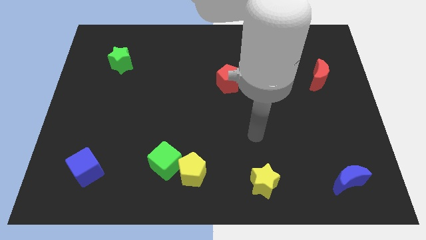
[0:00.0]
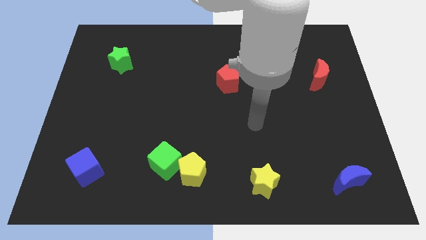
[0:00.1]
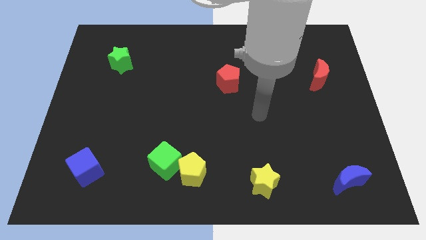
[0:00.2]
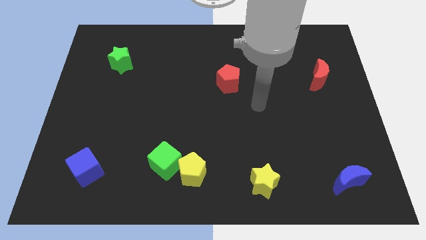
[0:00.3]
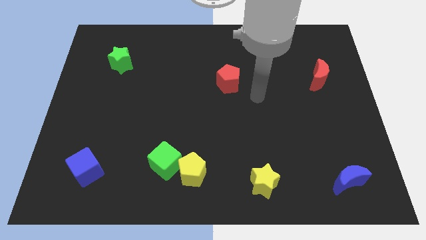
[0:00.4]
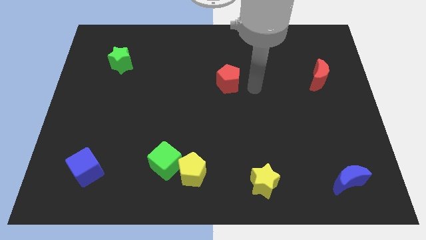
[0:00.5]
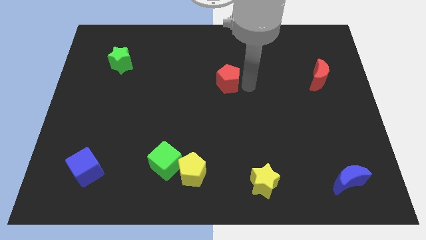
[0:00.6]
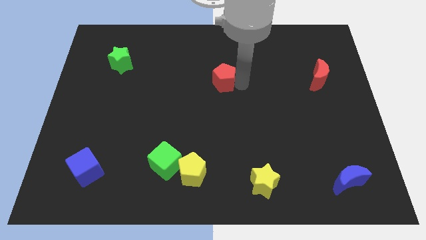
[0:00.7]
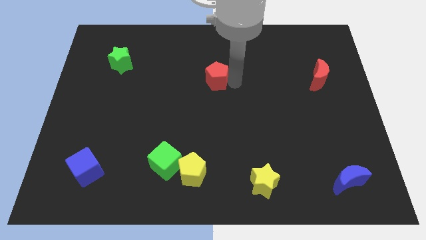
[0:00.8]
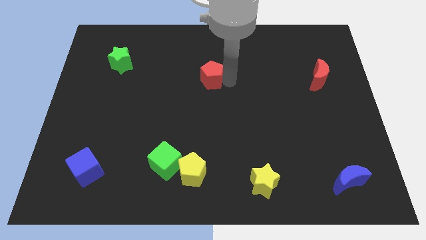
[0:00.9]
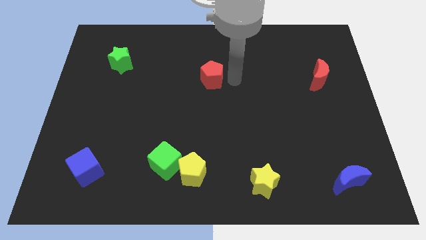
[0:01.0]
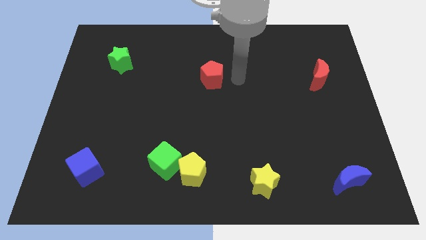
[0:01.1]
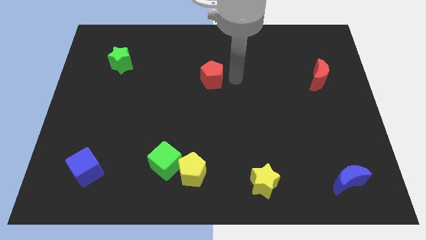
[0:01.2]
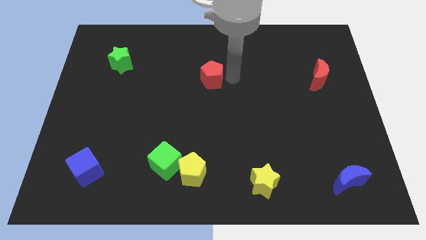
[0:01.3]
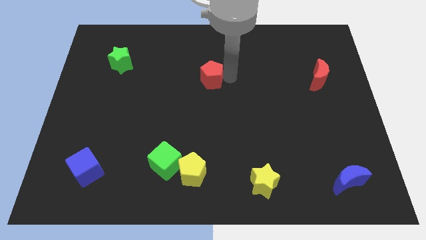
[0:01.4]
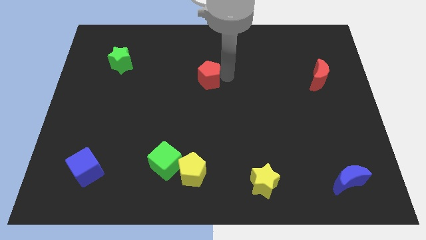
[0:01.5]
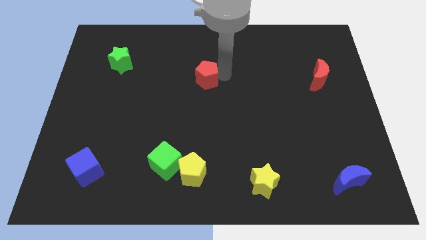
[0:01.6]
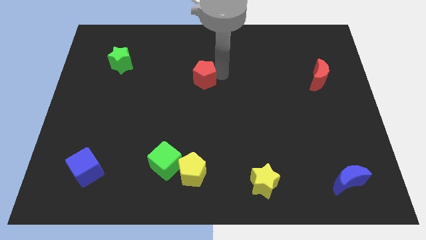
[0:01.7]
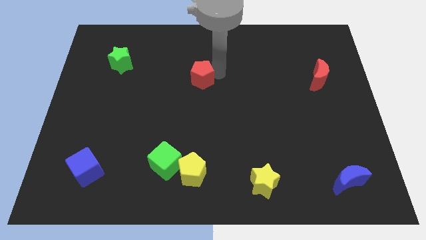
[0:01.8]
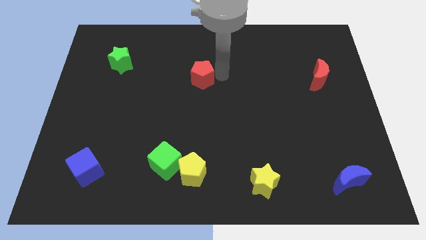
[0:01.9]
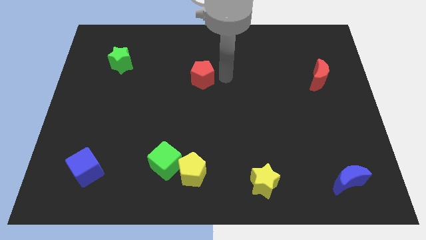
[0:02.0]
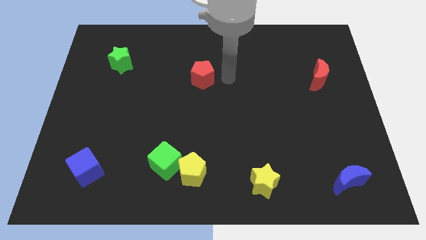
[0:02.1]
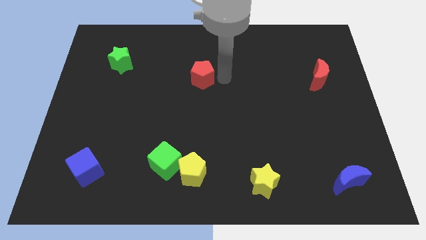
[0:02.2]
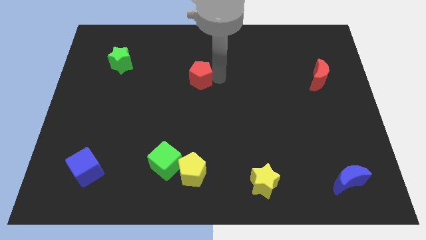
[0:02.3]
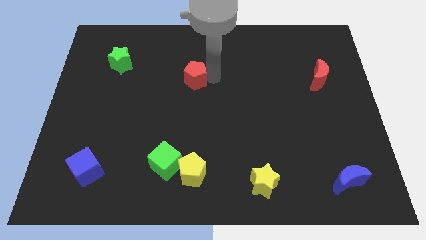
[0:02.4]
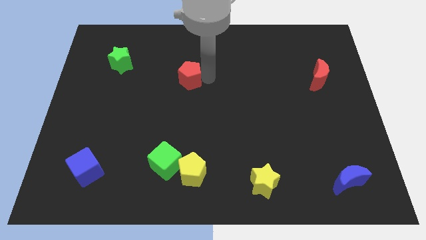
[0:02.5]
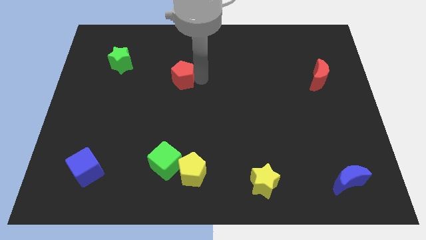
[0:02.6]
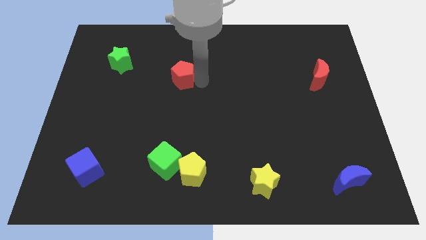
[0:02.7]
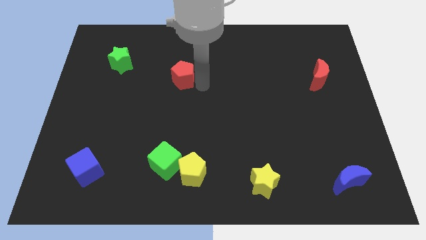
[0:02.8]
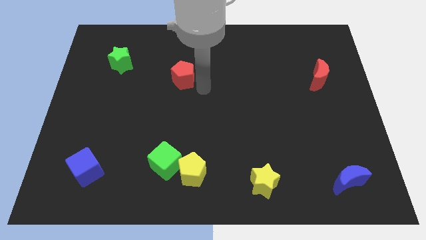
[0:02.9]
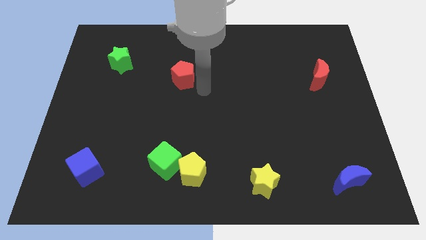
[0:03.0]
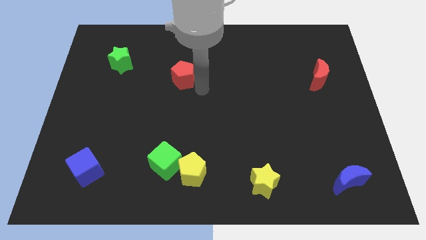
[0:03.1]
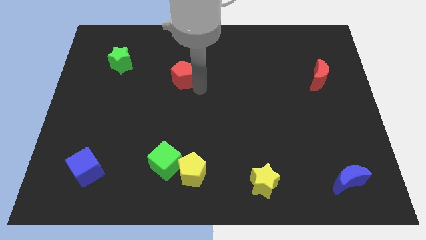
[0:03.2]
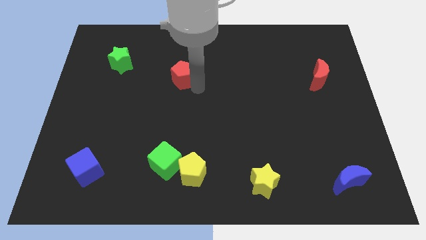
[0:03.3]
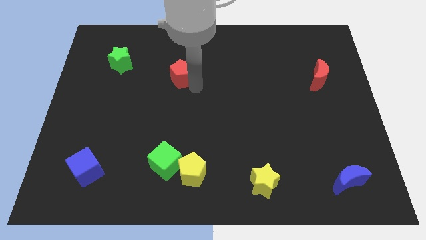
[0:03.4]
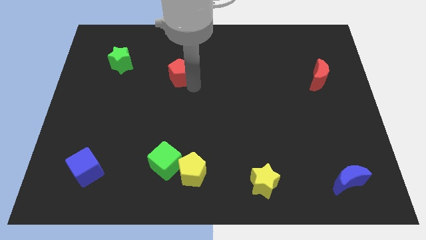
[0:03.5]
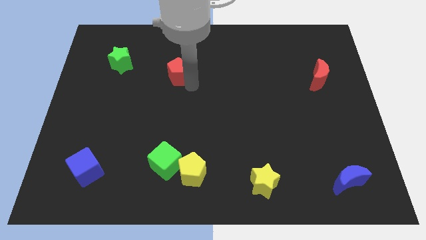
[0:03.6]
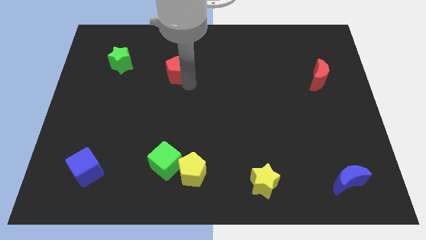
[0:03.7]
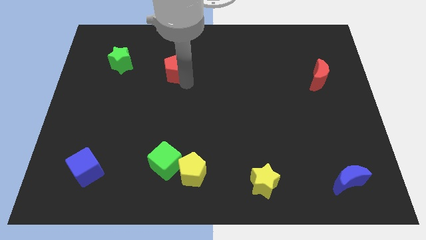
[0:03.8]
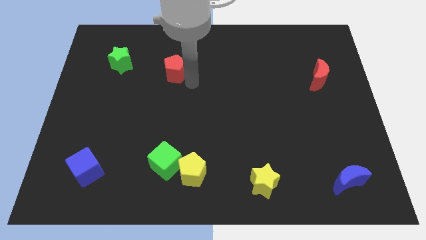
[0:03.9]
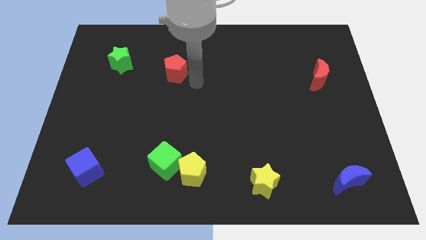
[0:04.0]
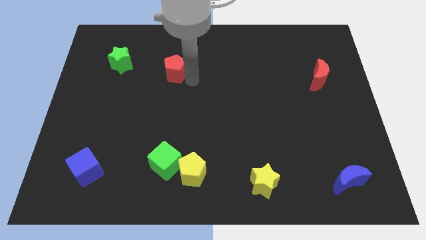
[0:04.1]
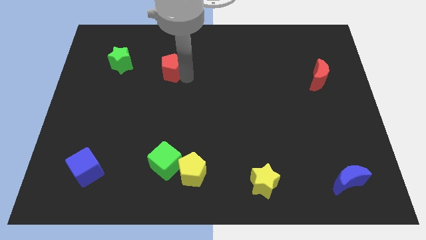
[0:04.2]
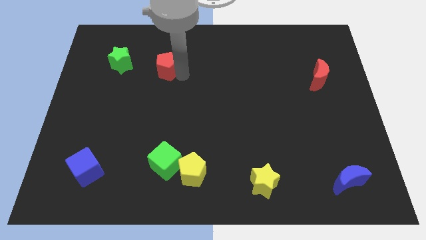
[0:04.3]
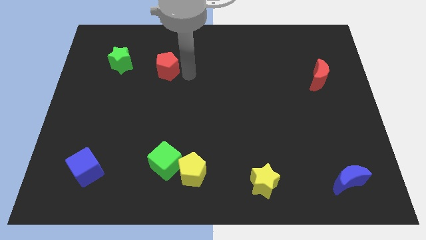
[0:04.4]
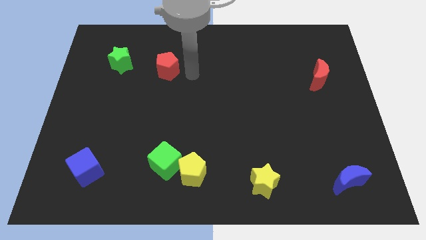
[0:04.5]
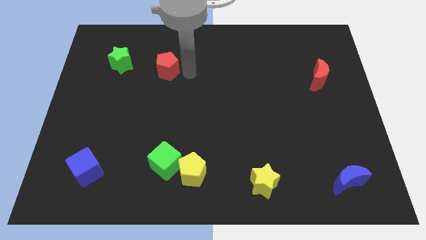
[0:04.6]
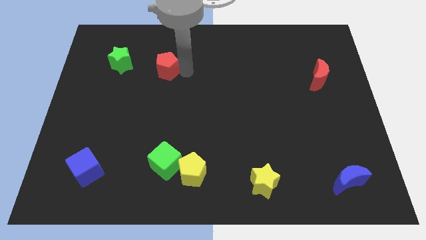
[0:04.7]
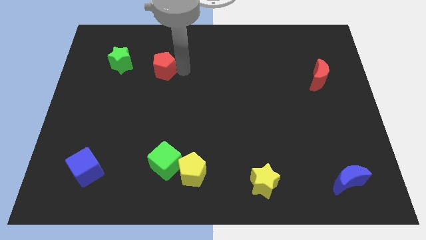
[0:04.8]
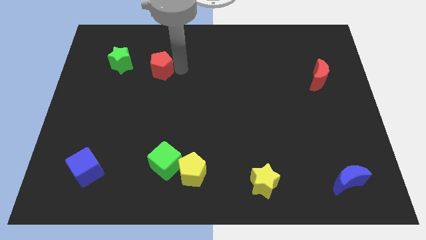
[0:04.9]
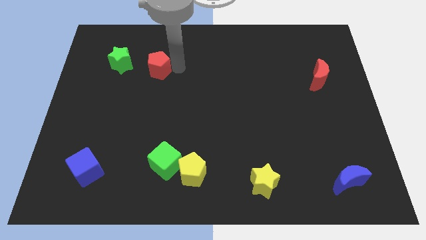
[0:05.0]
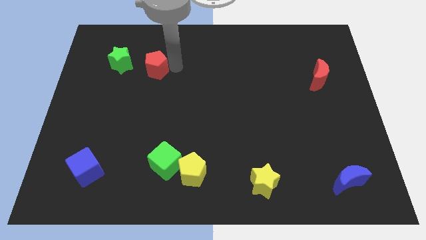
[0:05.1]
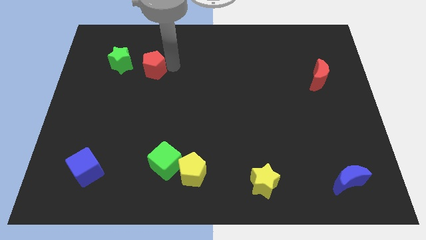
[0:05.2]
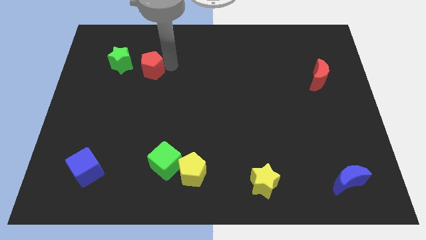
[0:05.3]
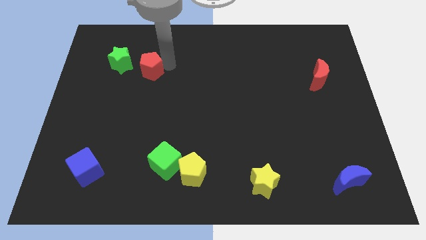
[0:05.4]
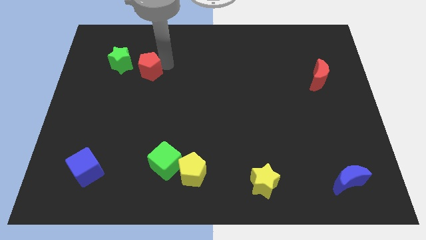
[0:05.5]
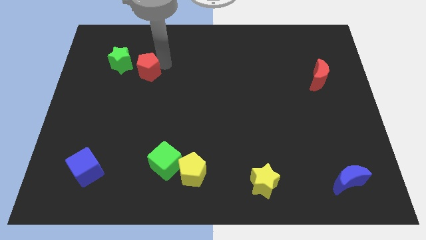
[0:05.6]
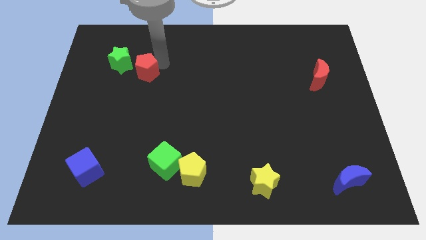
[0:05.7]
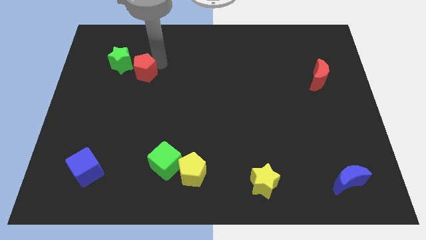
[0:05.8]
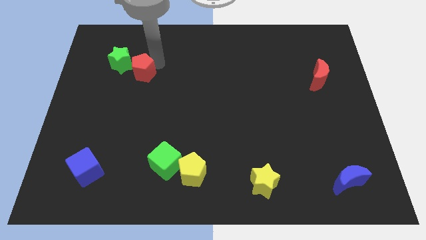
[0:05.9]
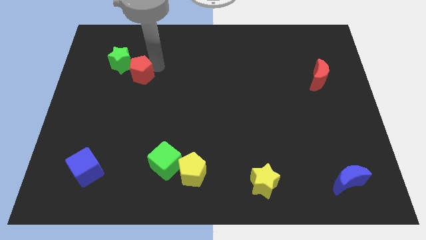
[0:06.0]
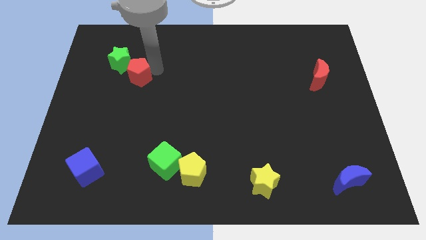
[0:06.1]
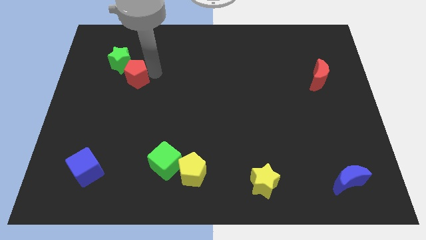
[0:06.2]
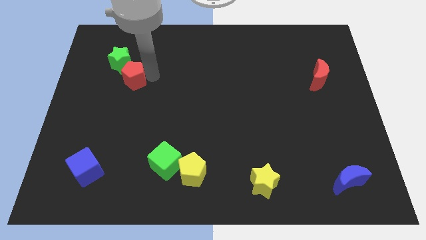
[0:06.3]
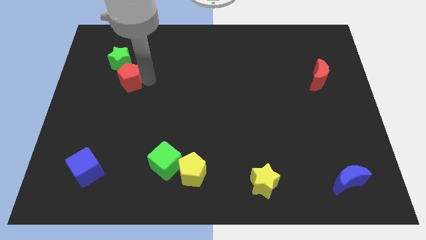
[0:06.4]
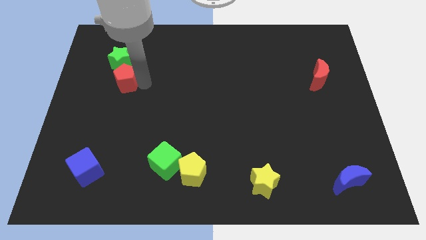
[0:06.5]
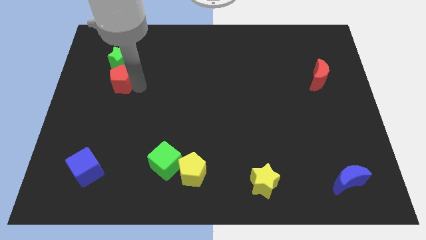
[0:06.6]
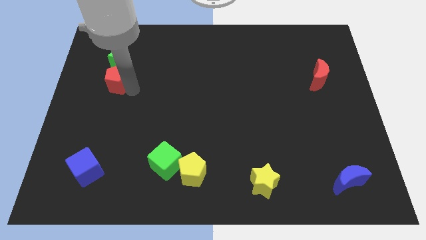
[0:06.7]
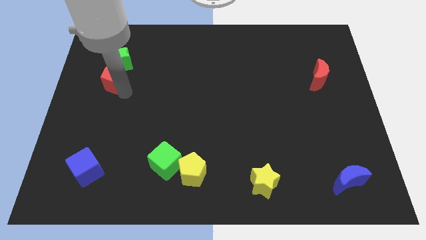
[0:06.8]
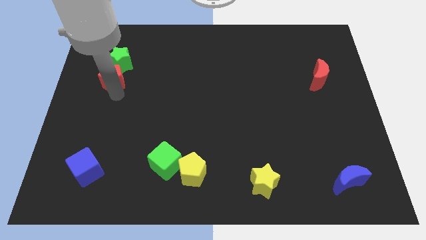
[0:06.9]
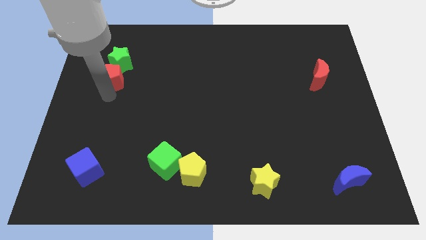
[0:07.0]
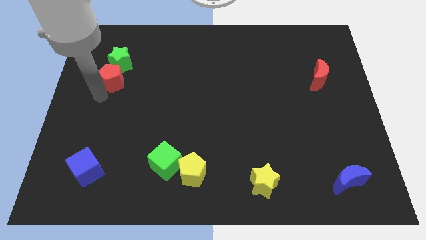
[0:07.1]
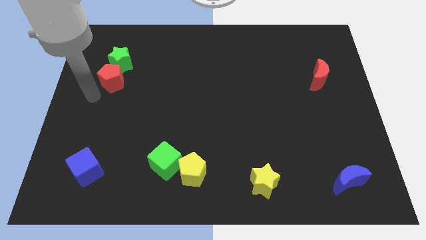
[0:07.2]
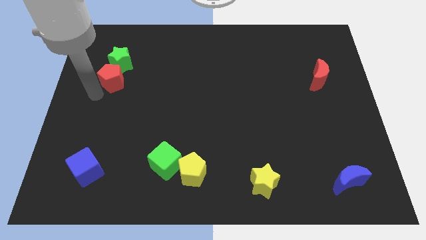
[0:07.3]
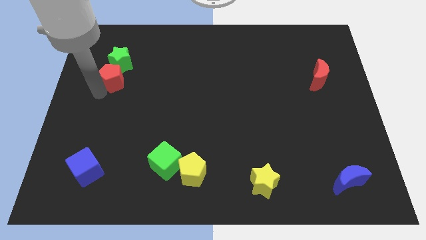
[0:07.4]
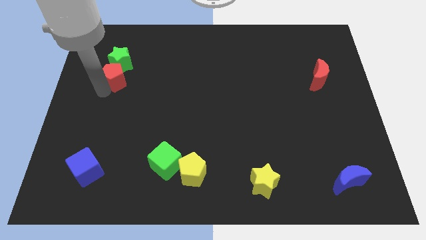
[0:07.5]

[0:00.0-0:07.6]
slide the red pentagon next to the green star
